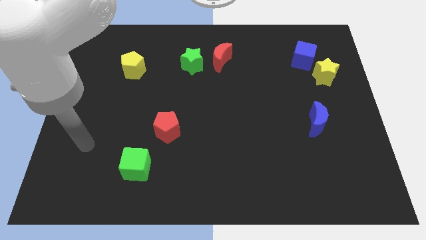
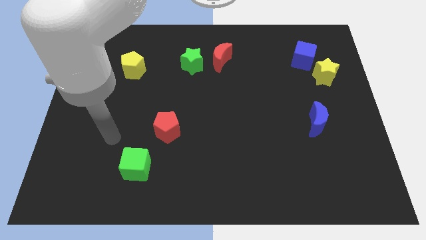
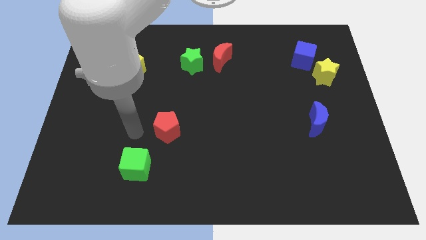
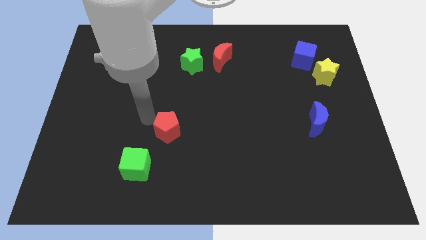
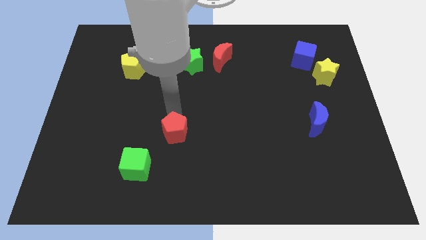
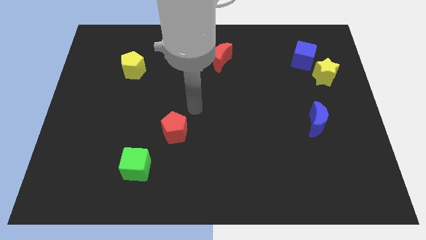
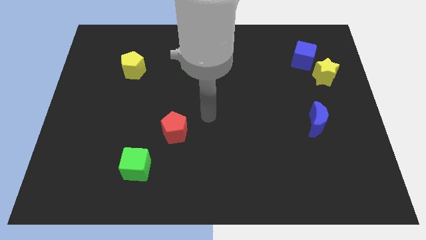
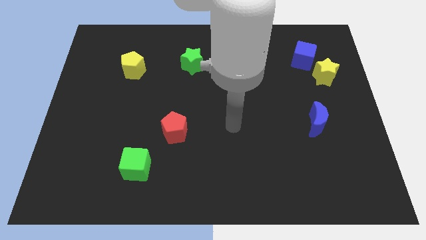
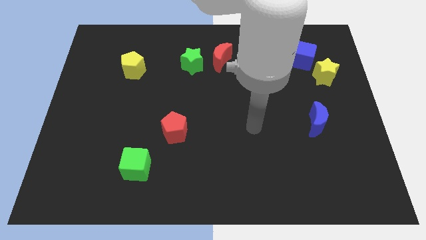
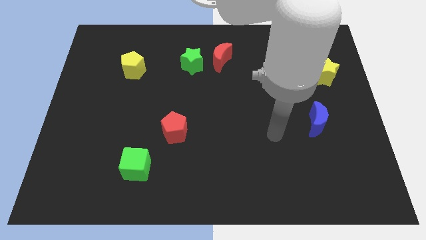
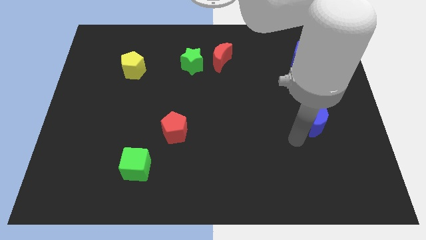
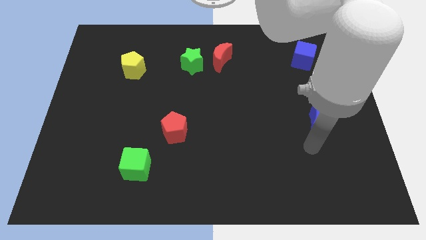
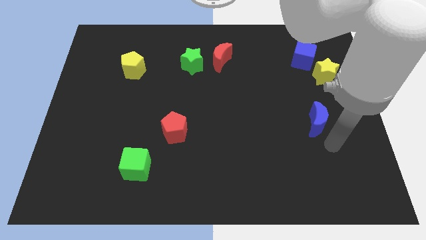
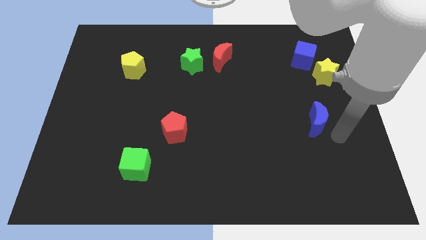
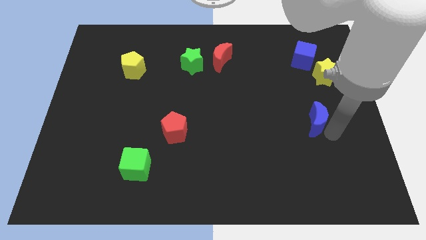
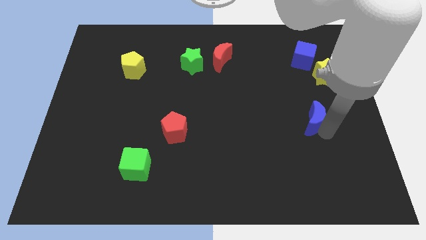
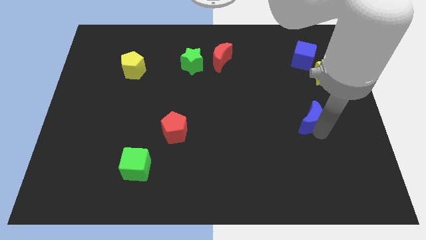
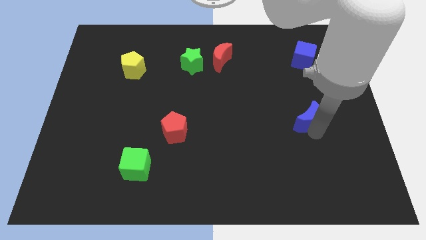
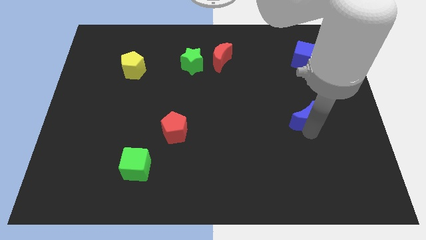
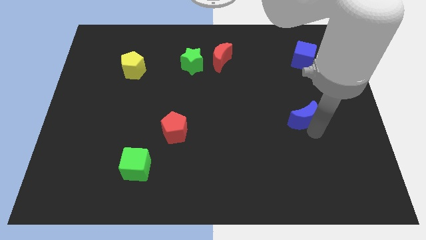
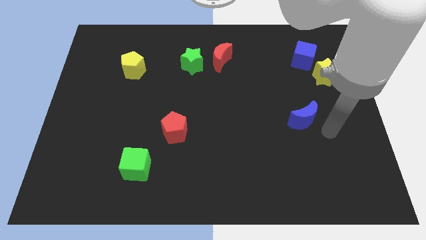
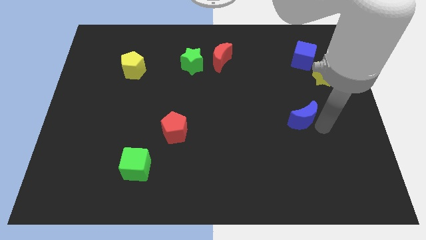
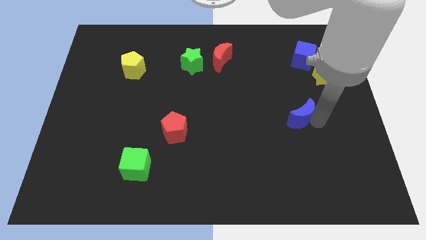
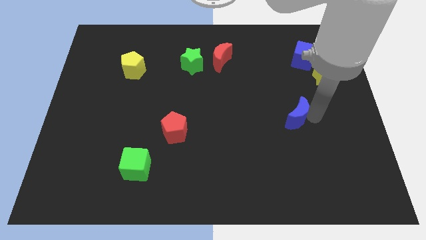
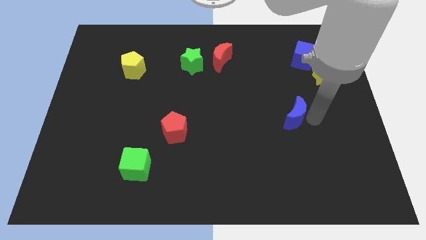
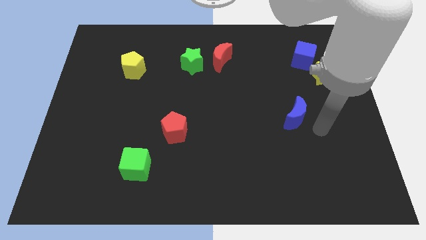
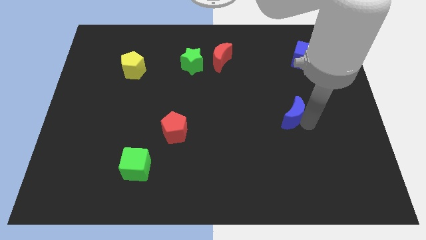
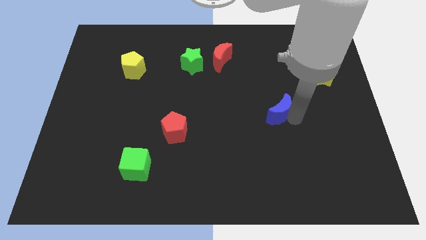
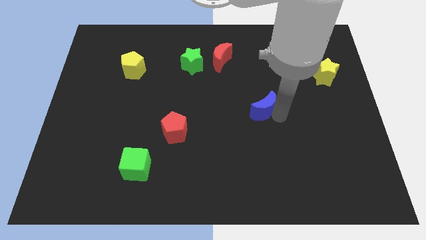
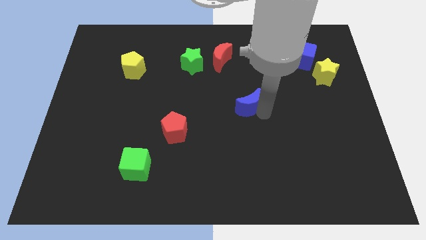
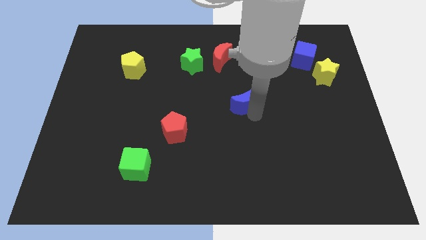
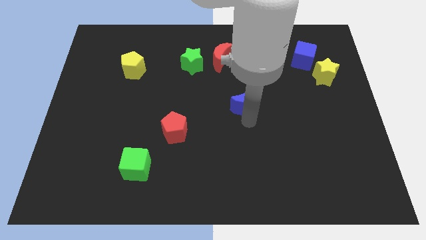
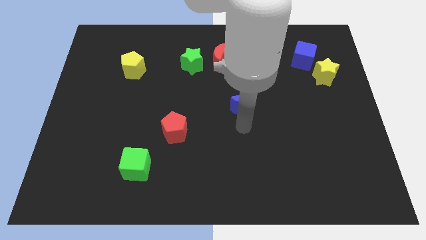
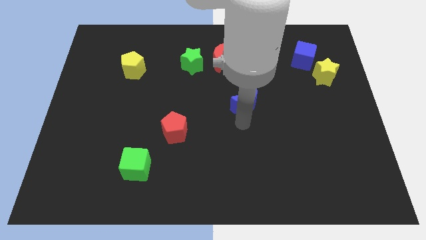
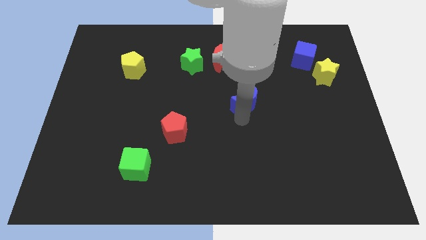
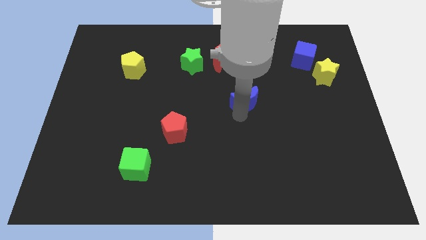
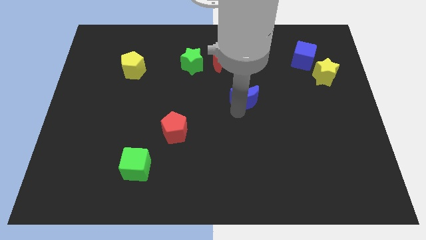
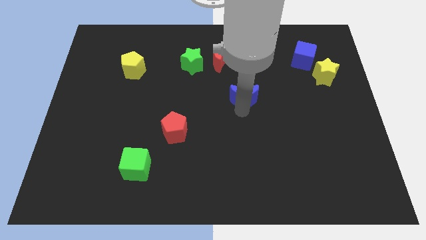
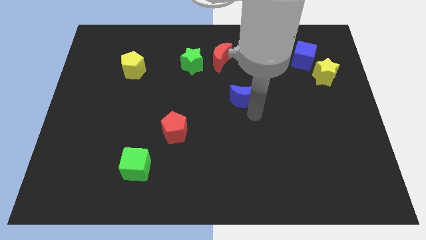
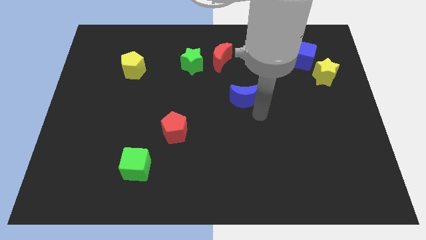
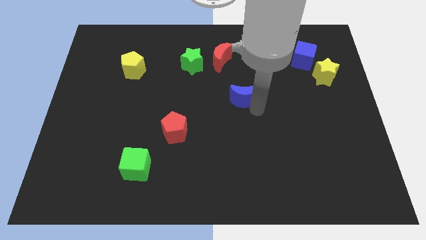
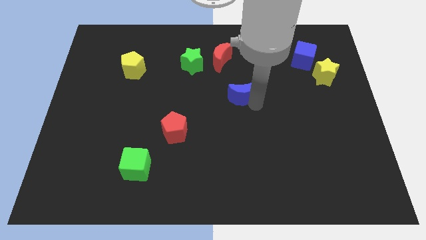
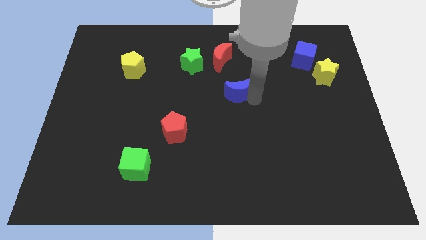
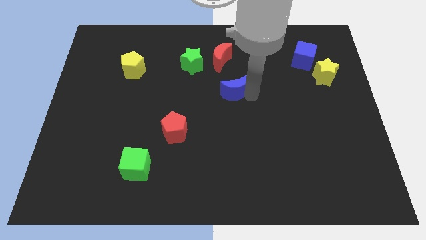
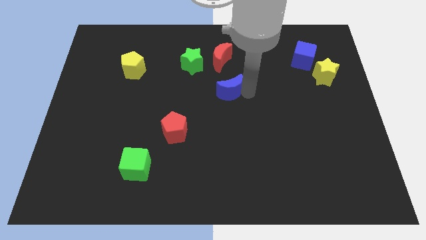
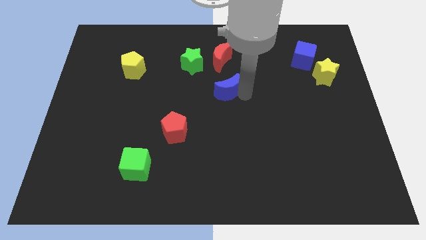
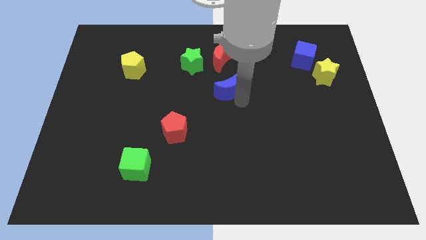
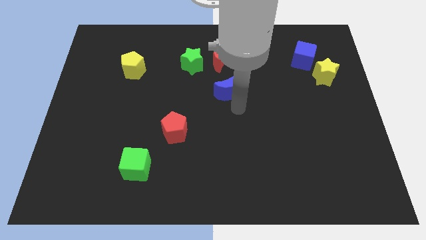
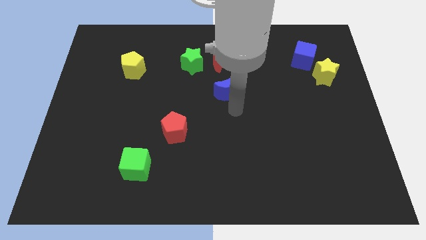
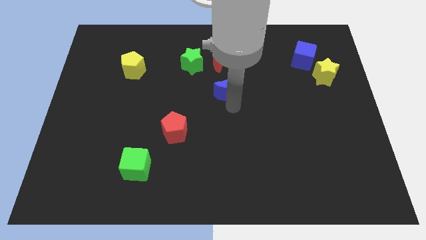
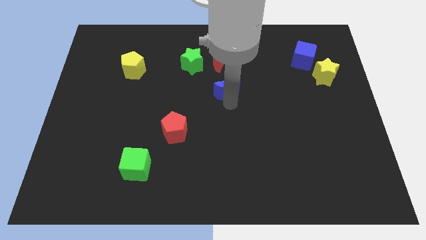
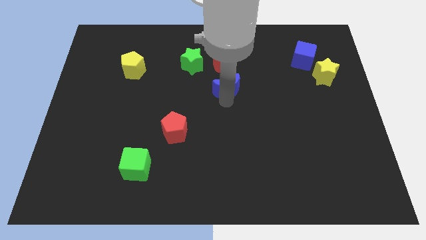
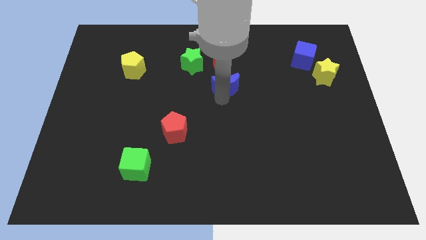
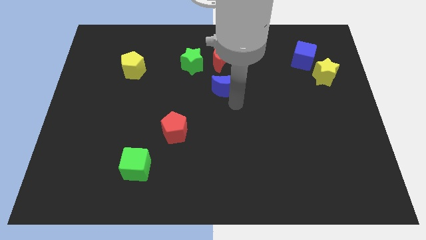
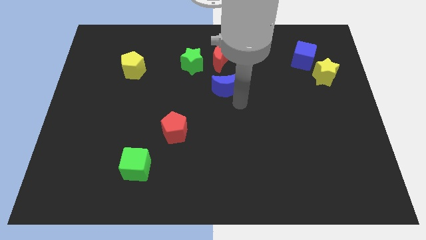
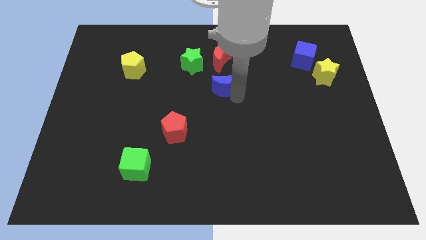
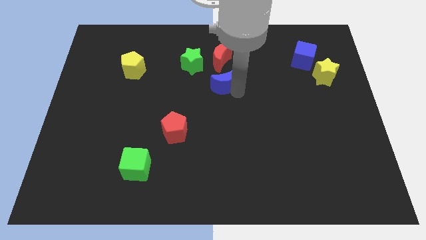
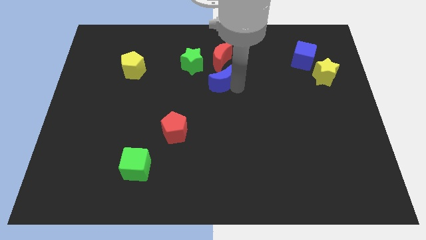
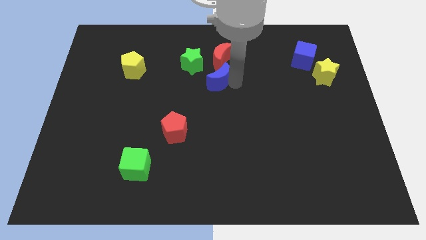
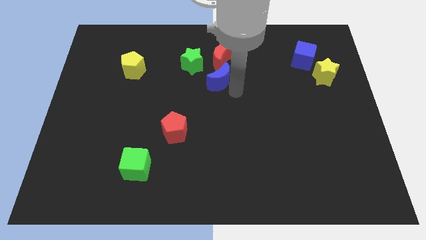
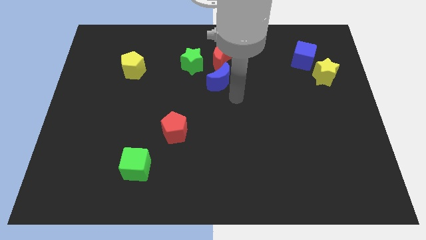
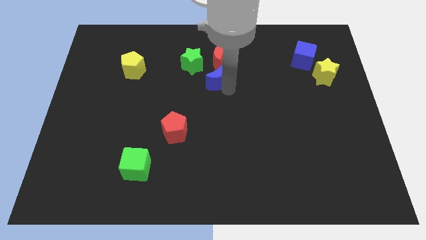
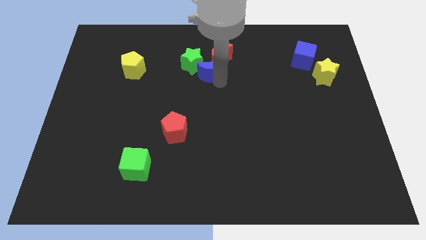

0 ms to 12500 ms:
slide the blue moon to the green star

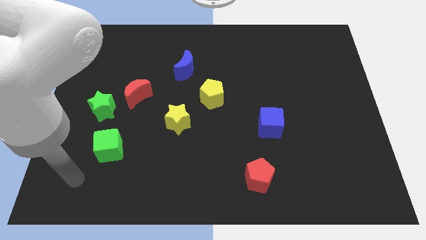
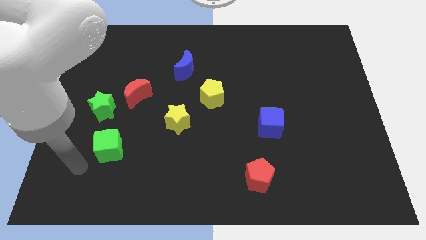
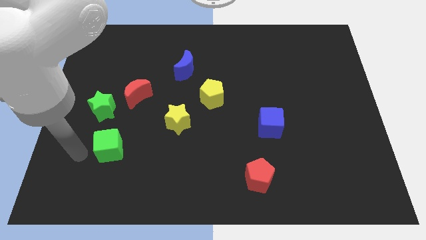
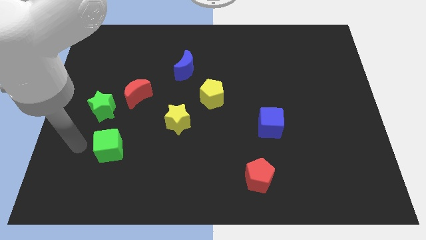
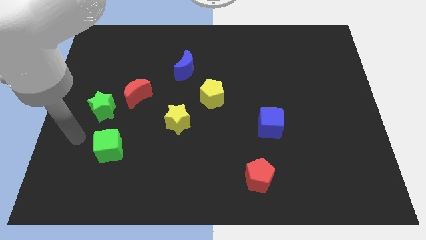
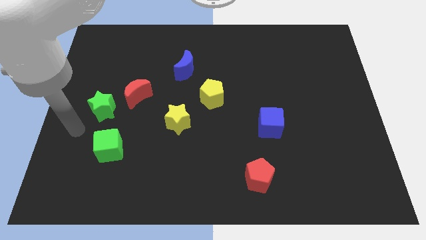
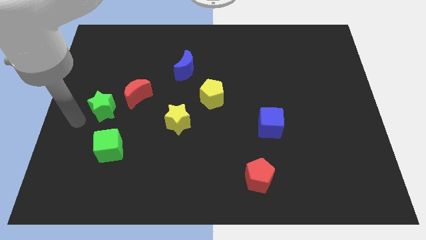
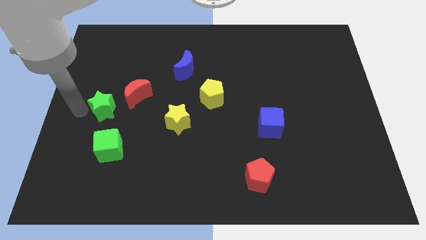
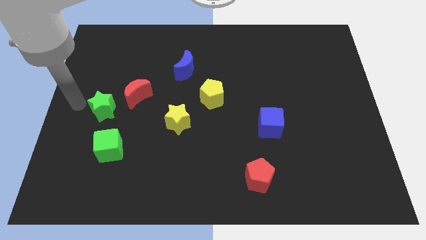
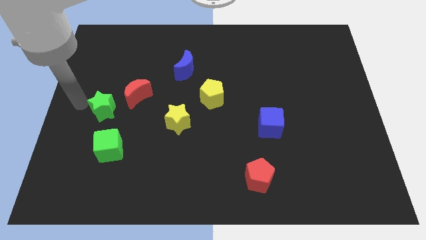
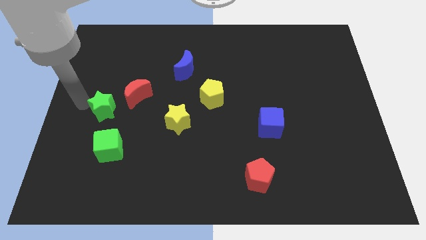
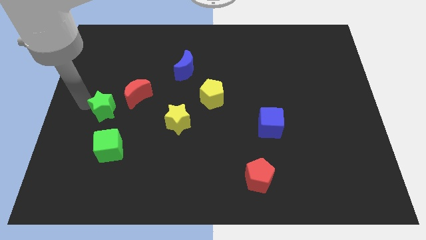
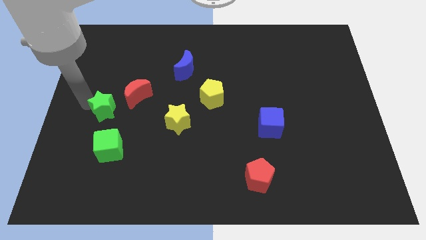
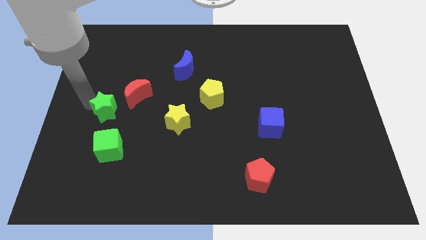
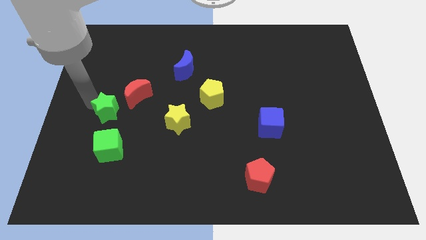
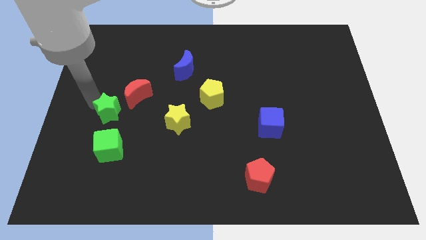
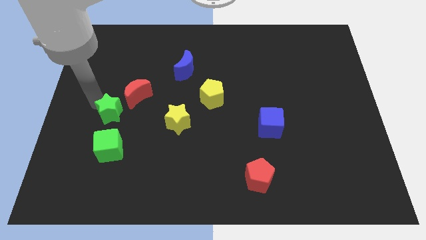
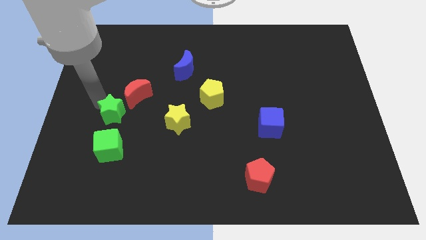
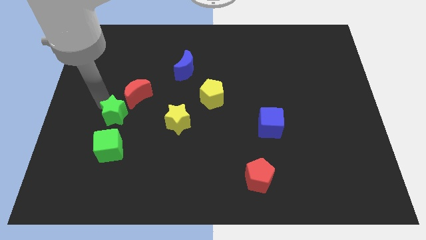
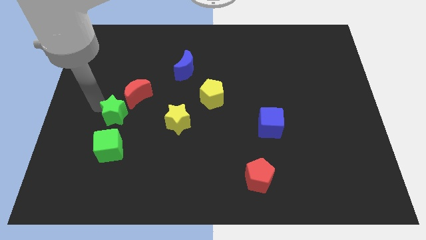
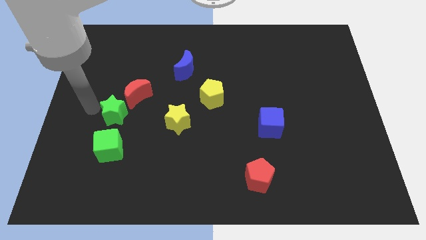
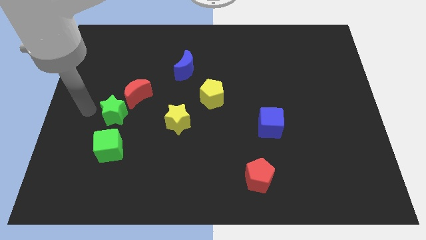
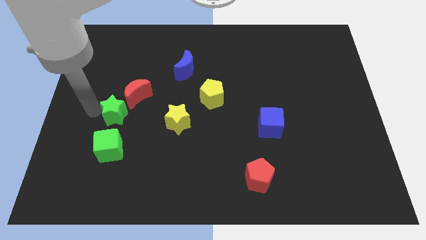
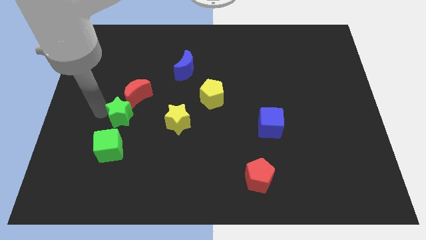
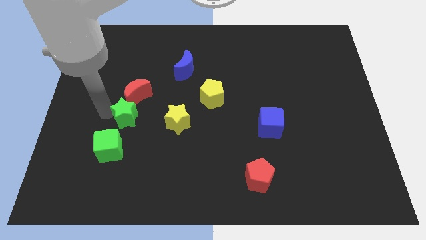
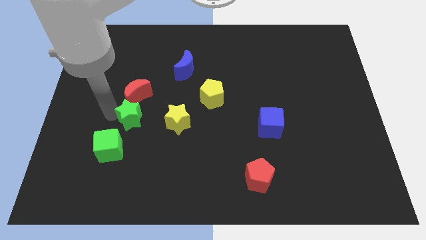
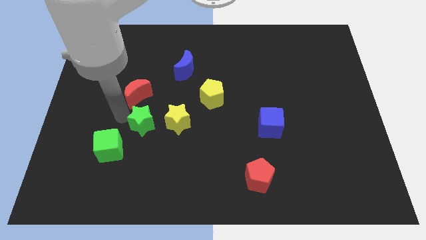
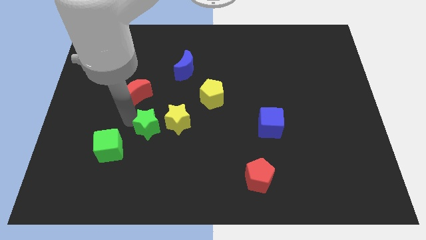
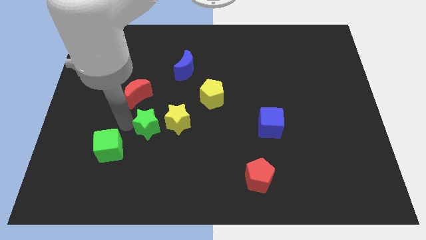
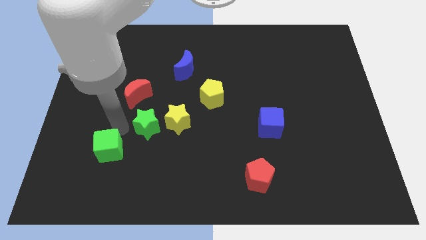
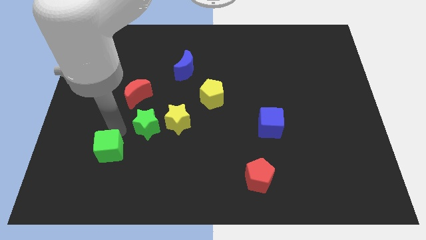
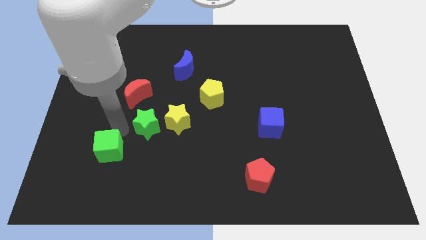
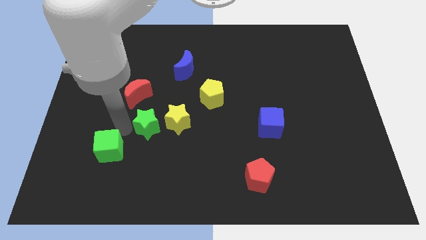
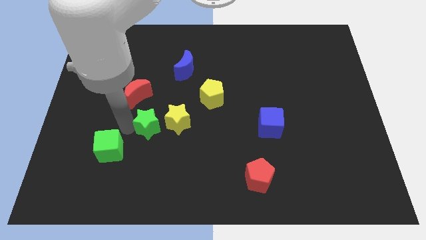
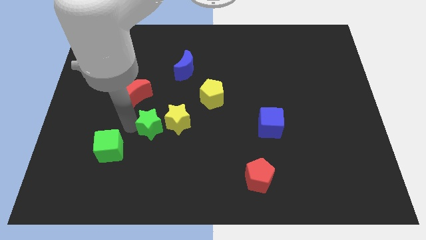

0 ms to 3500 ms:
put the green star towards the yellow star
